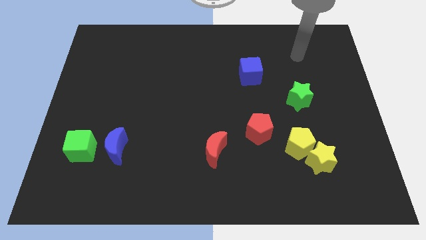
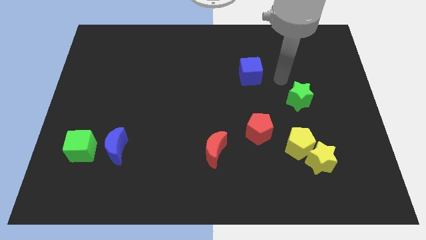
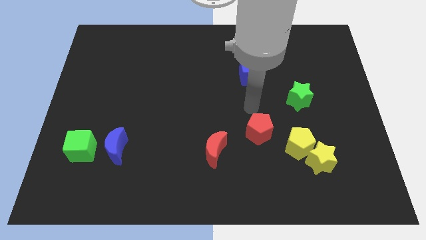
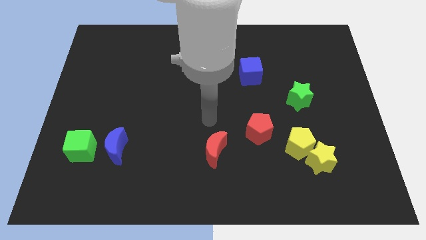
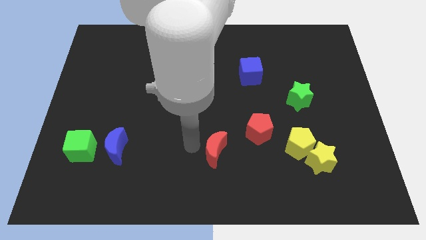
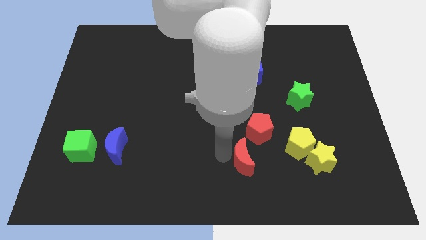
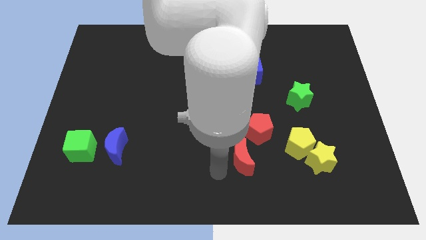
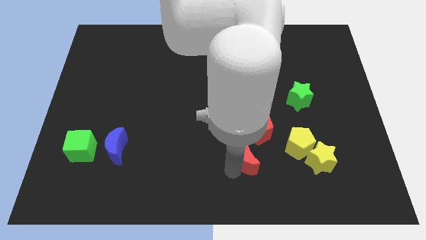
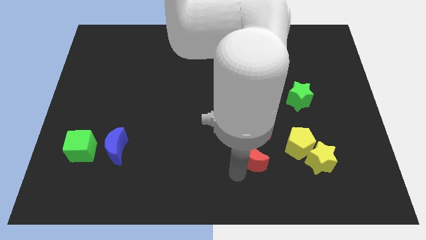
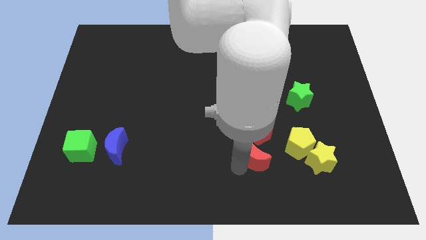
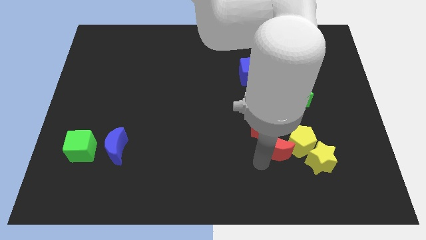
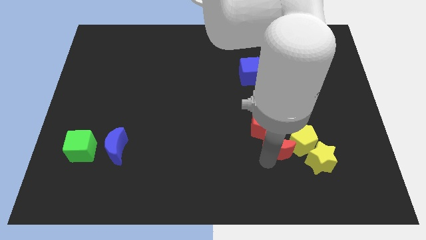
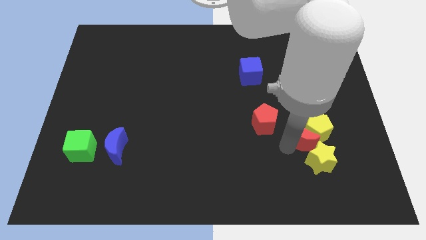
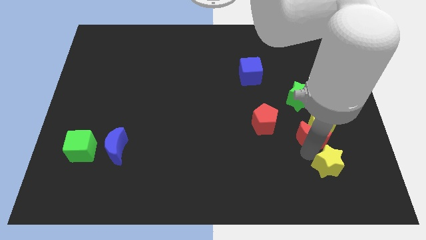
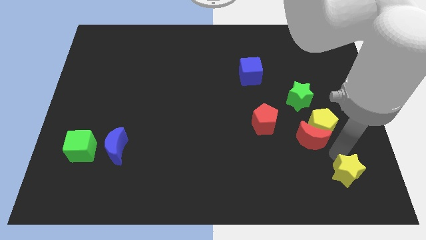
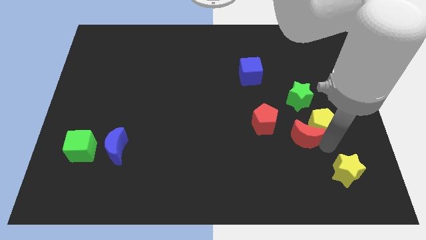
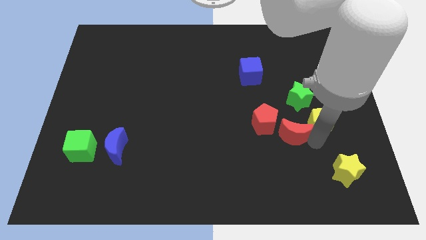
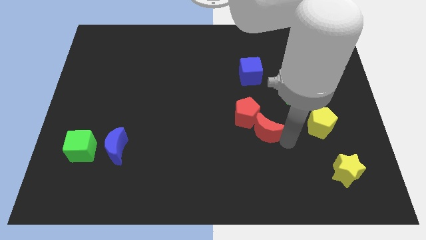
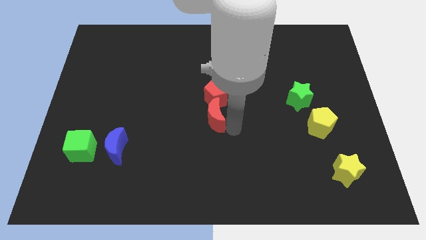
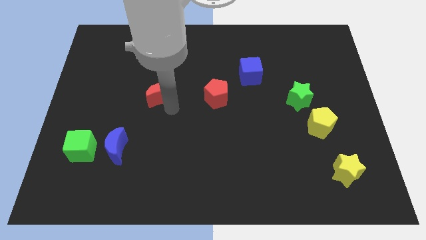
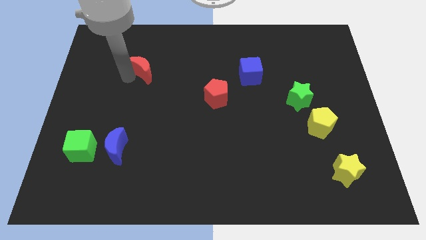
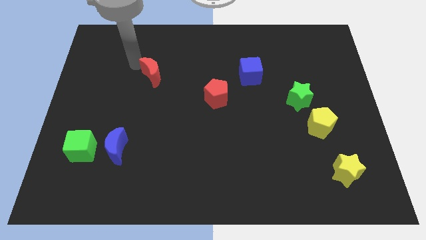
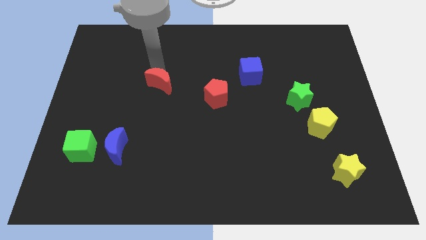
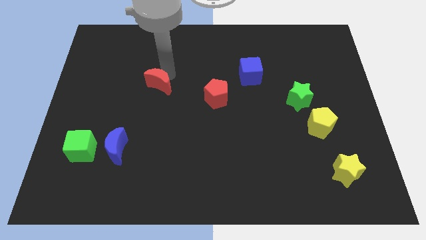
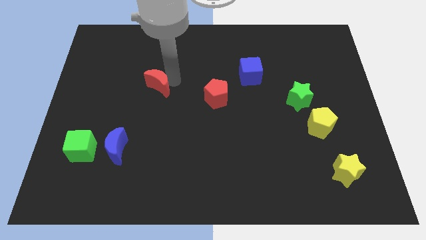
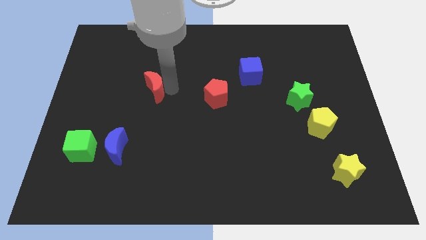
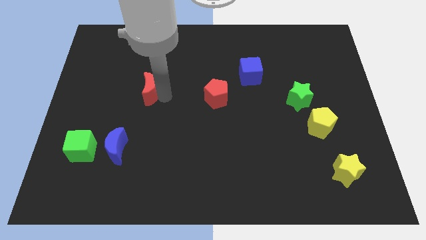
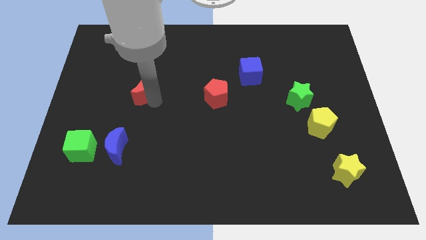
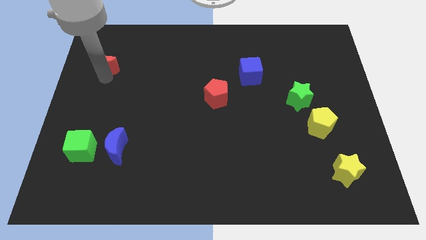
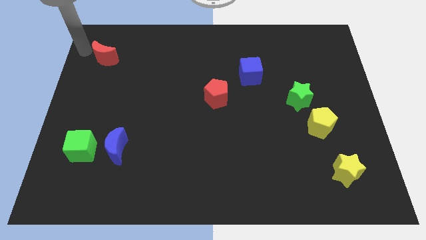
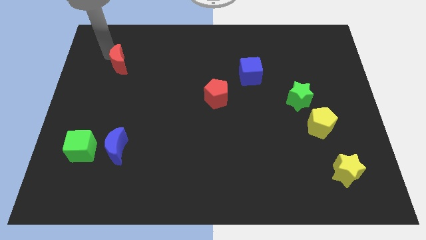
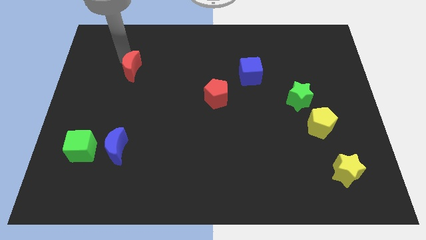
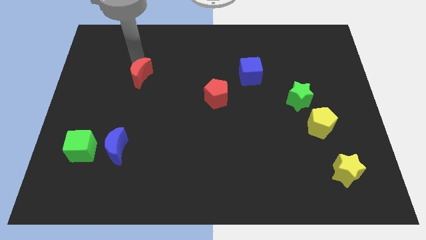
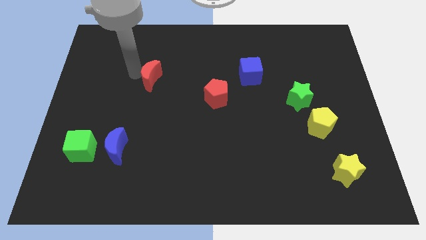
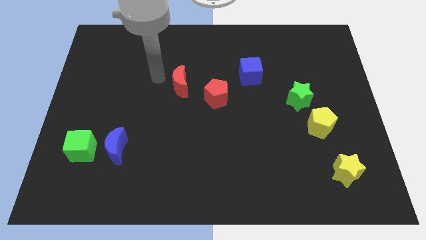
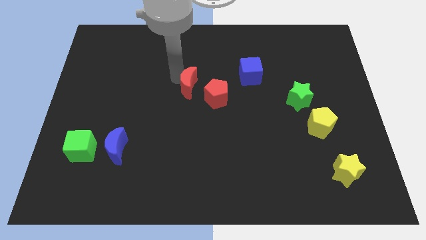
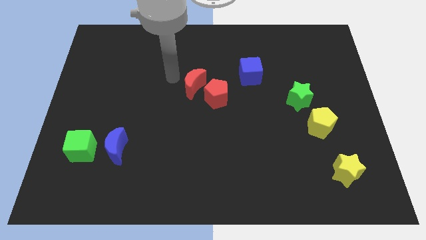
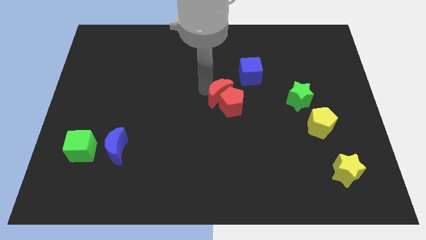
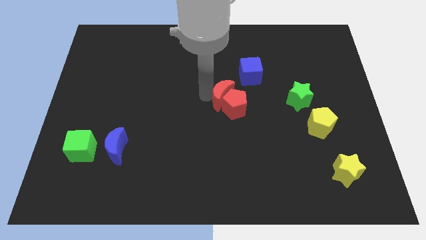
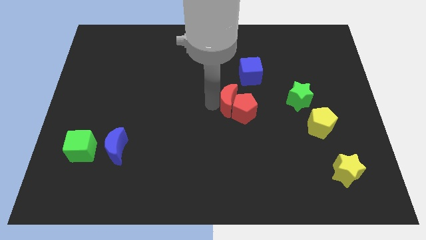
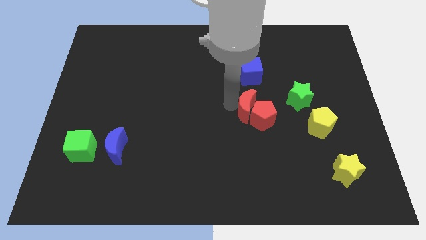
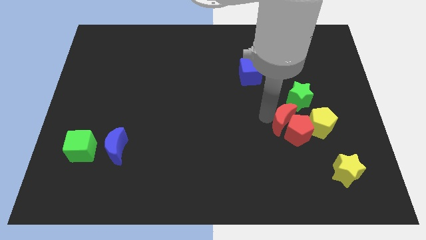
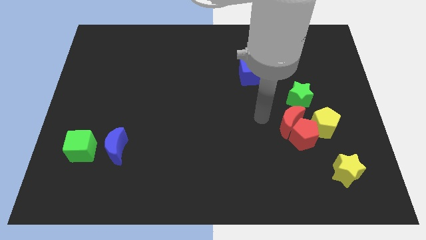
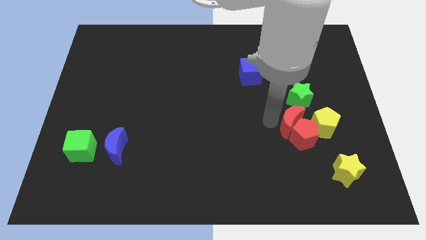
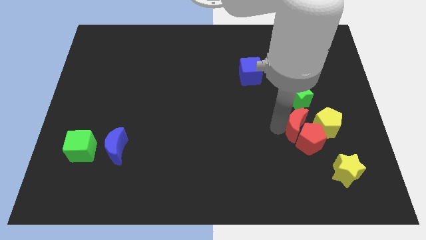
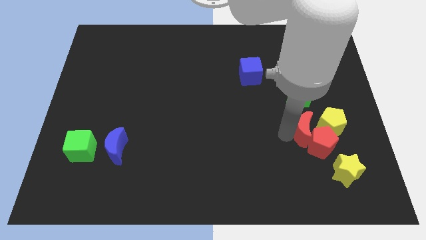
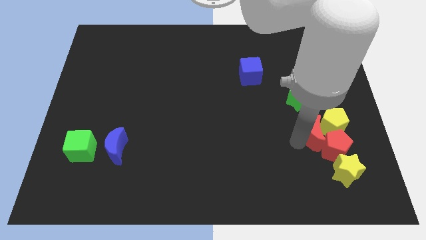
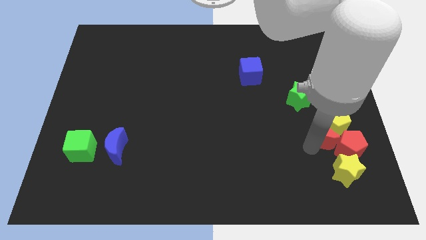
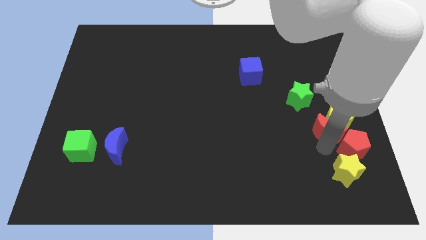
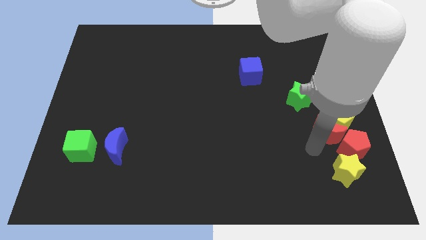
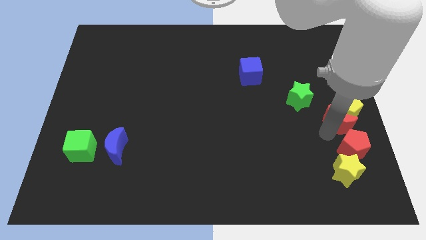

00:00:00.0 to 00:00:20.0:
move the red moon to the right side of the board

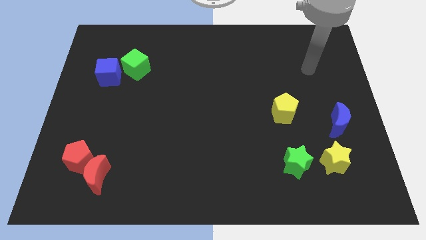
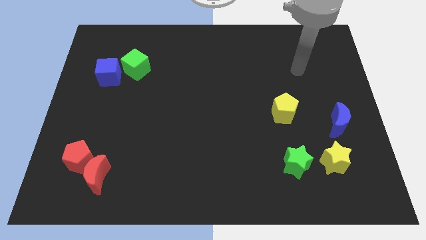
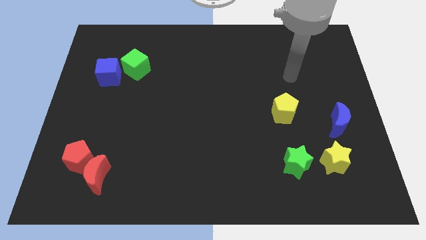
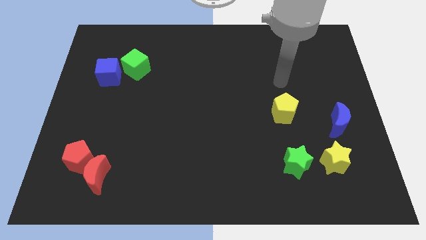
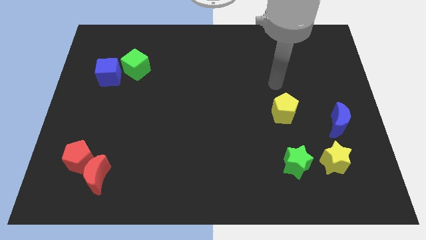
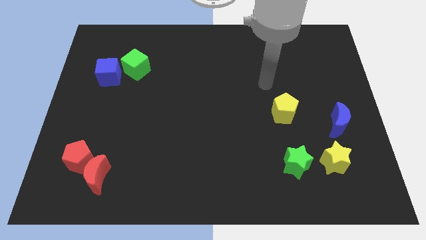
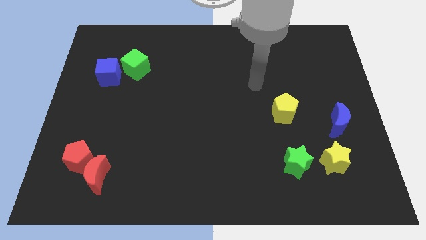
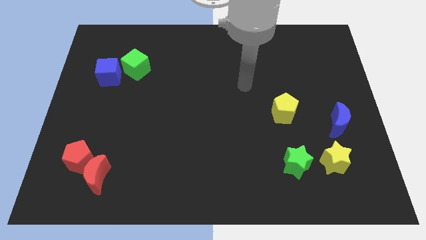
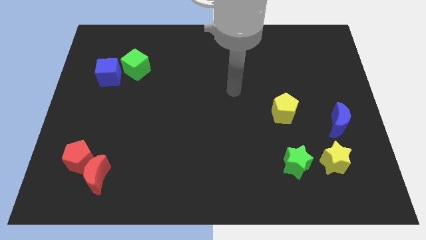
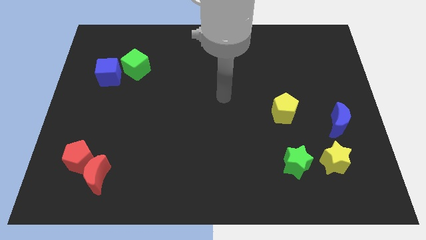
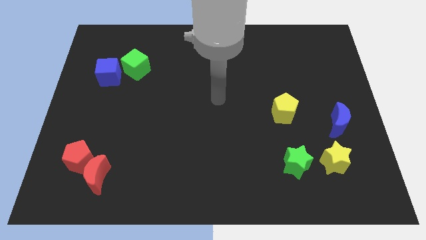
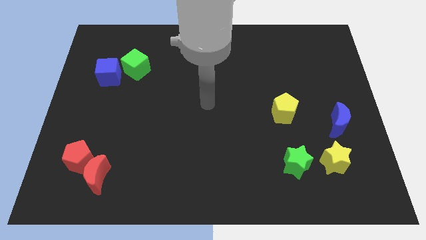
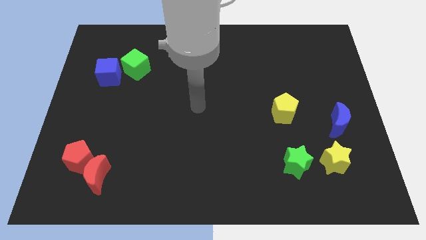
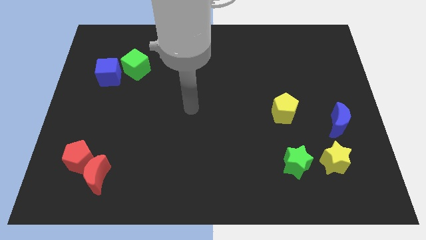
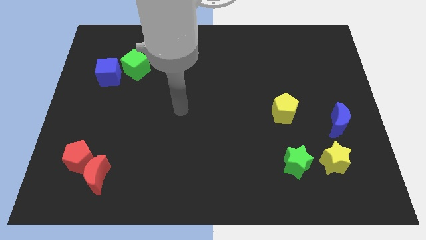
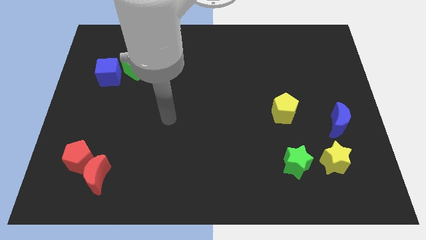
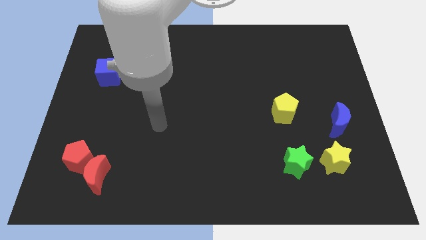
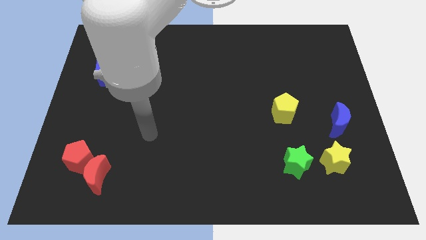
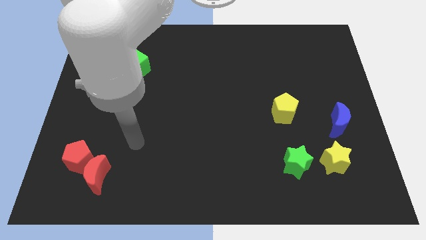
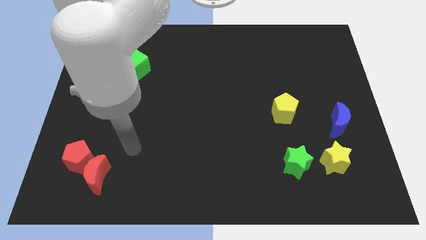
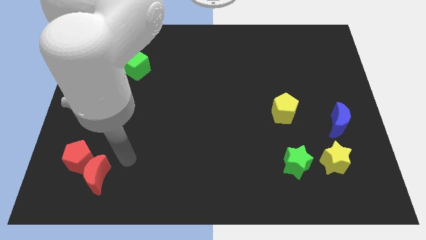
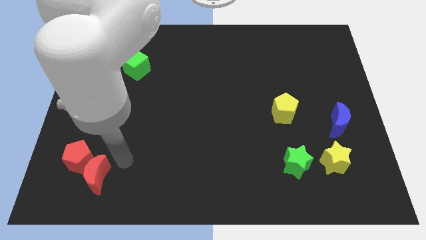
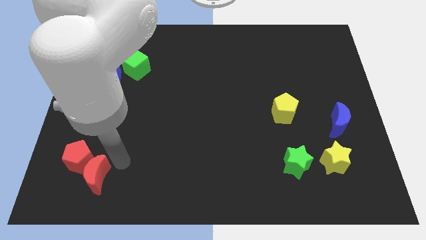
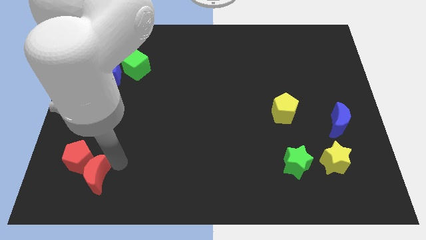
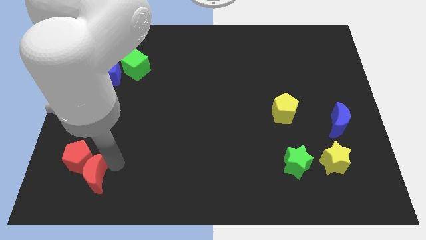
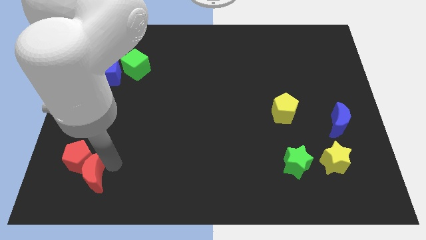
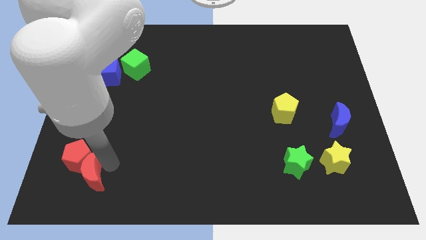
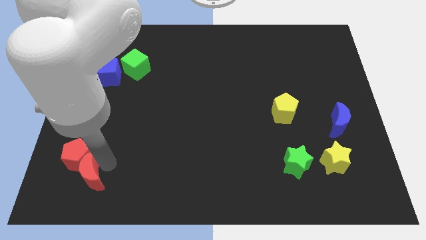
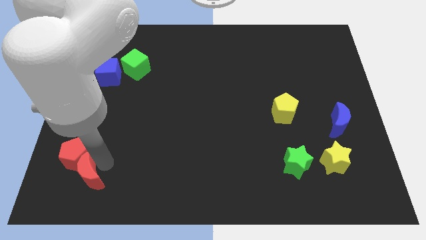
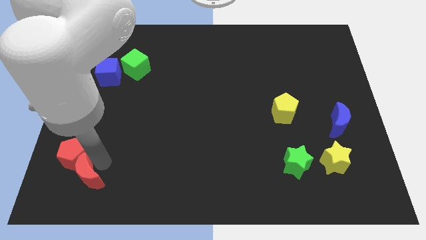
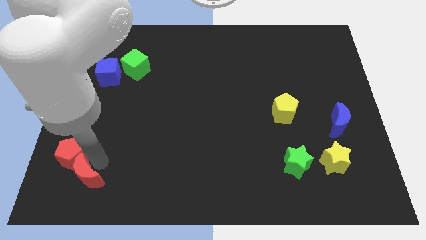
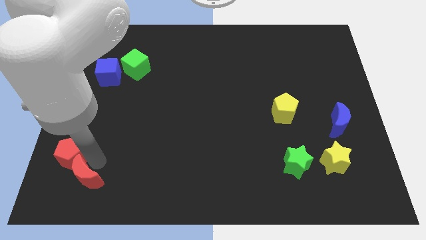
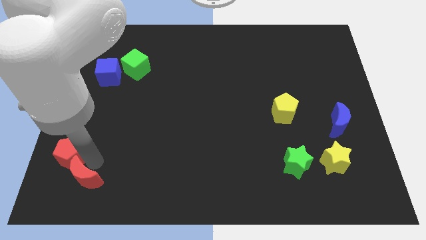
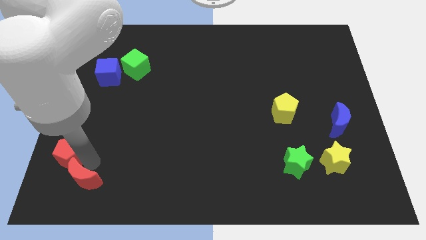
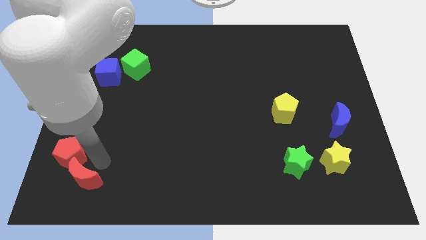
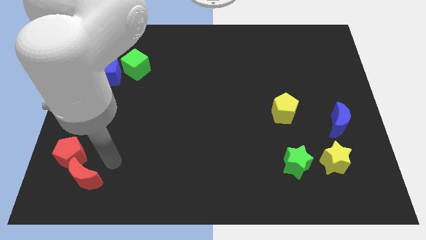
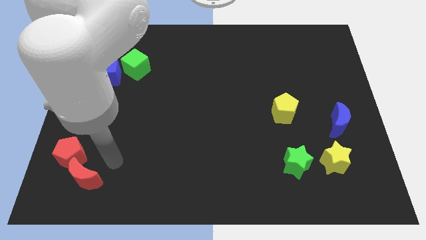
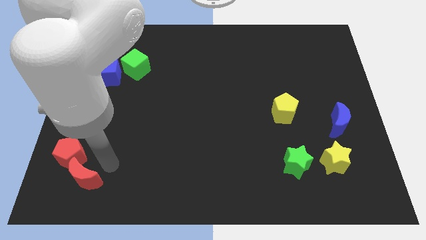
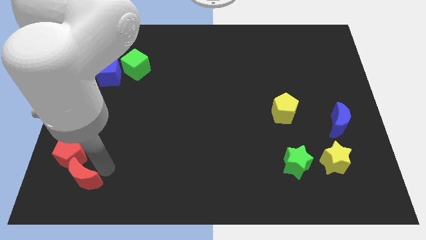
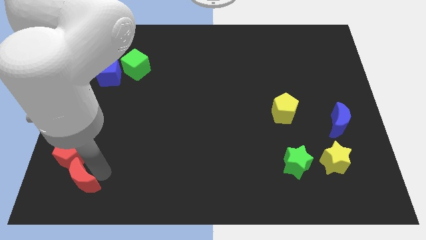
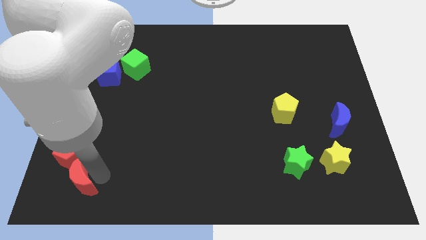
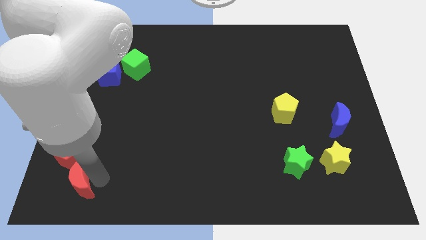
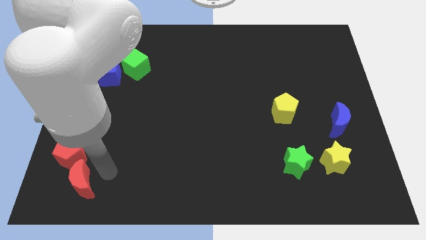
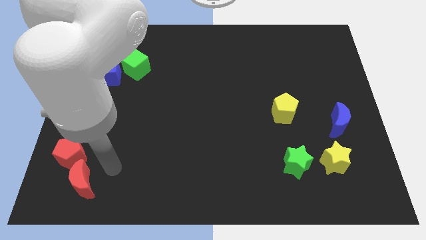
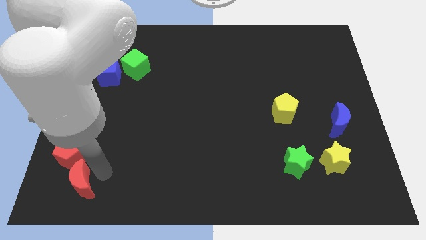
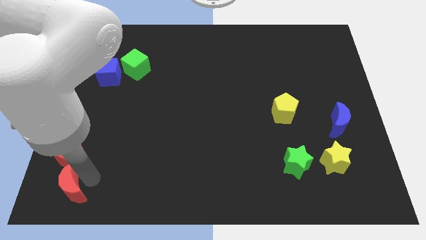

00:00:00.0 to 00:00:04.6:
move the red moon to the bottom left
